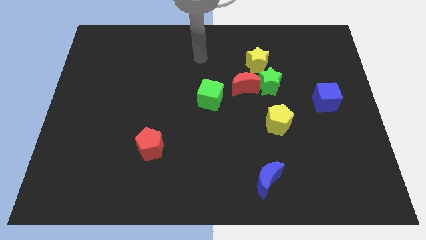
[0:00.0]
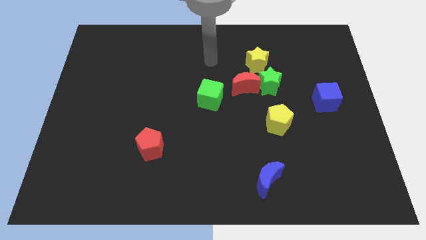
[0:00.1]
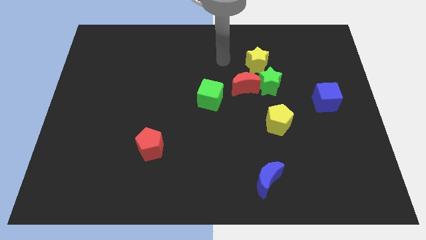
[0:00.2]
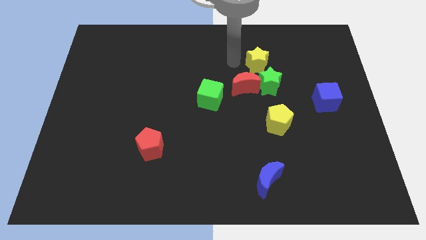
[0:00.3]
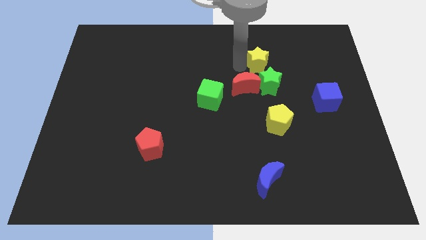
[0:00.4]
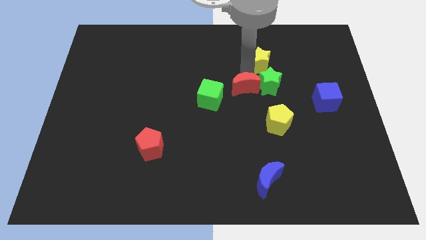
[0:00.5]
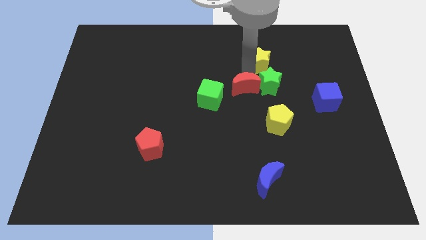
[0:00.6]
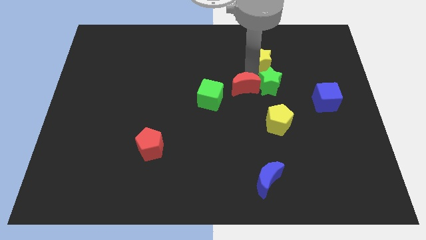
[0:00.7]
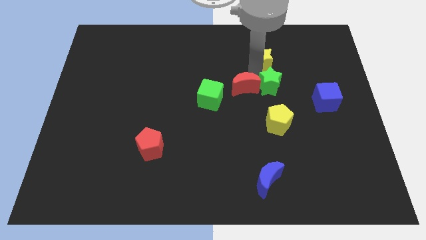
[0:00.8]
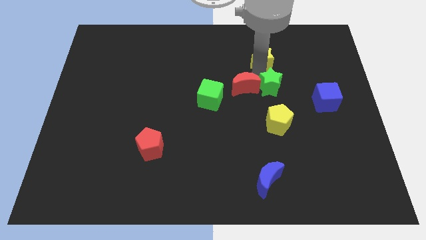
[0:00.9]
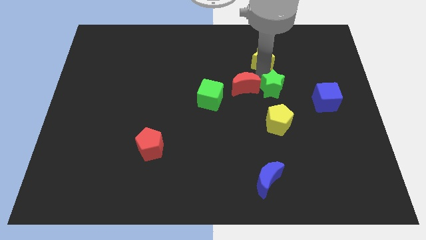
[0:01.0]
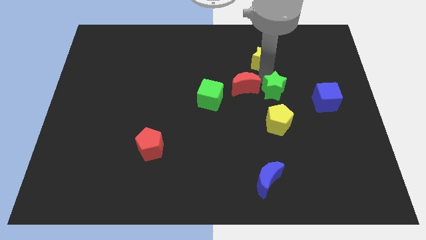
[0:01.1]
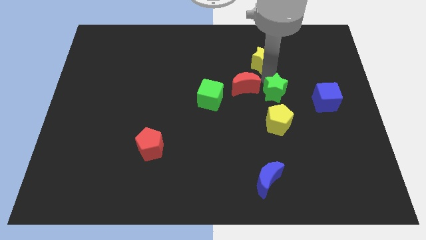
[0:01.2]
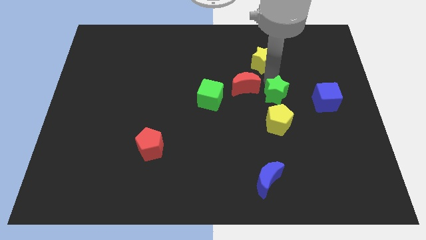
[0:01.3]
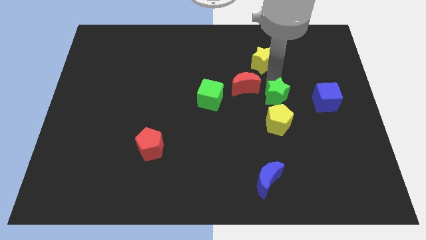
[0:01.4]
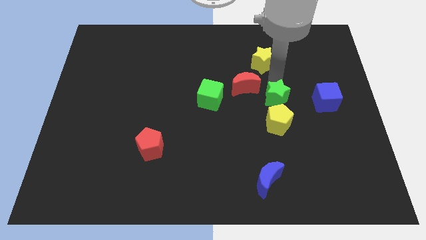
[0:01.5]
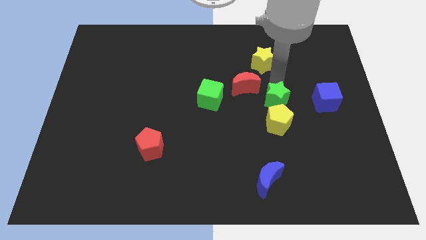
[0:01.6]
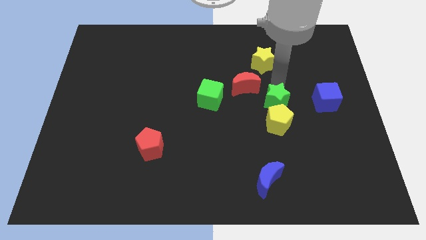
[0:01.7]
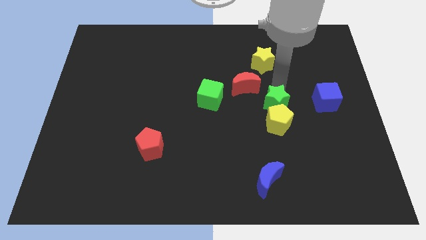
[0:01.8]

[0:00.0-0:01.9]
move the green star away from the red moon and yellow star

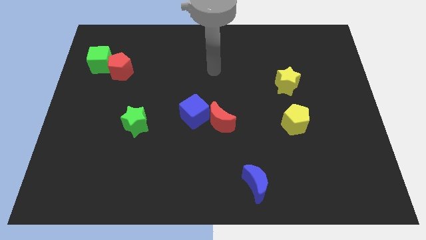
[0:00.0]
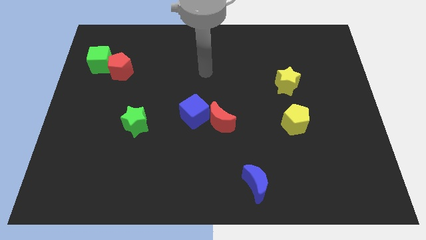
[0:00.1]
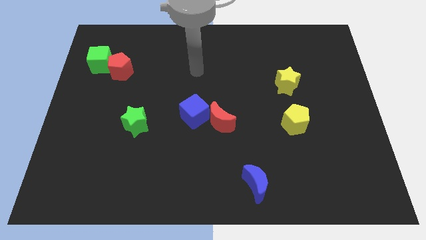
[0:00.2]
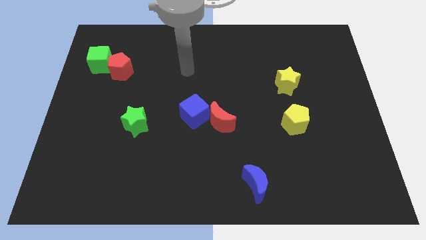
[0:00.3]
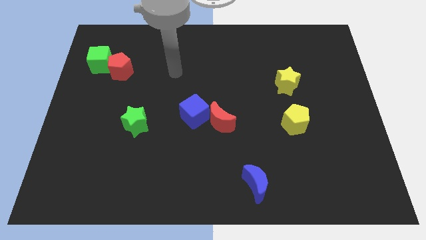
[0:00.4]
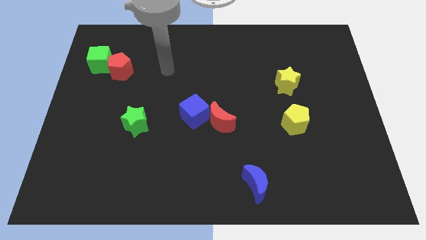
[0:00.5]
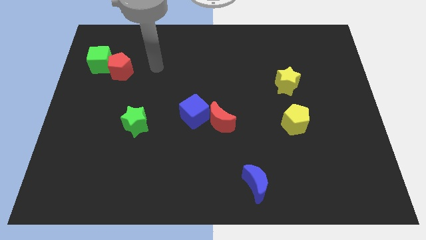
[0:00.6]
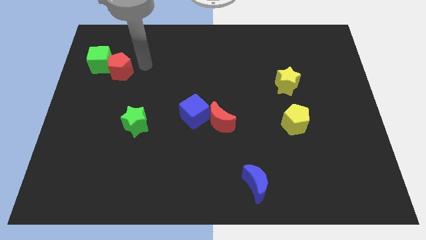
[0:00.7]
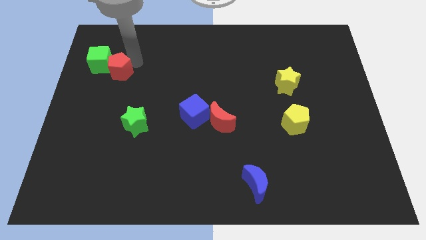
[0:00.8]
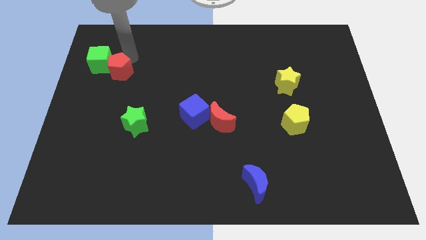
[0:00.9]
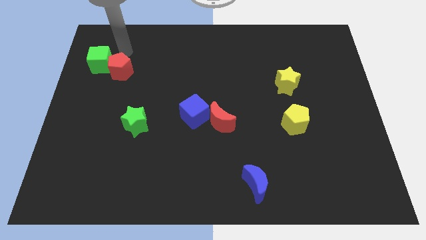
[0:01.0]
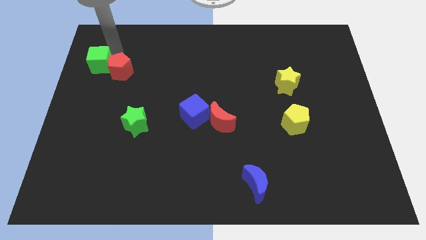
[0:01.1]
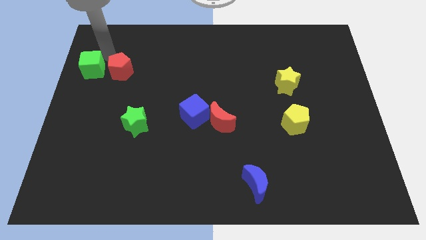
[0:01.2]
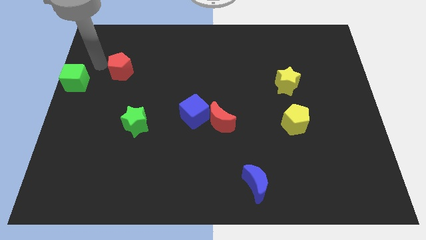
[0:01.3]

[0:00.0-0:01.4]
move the red pentagon away from the green cube

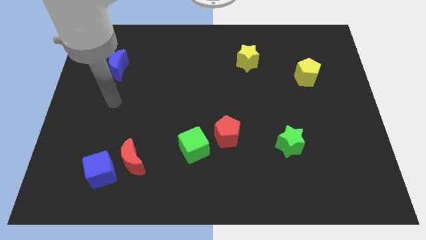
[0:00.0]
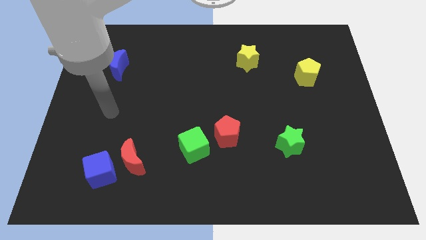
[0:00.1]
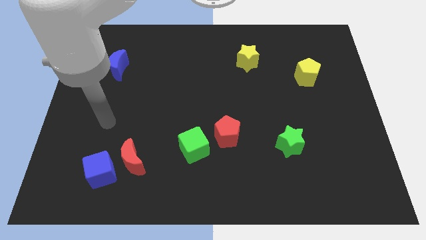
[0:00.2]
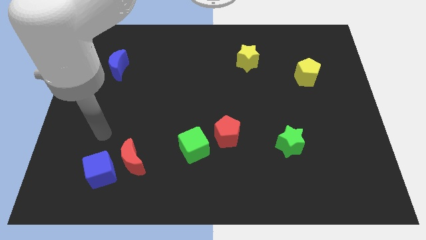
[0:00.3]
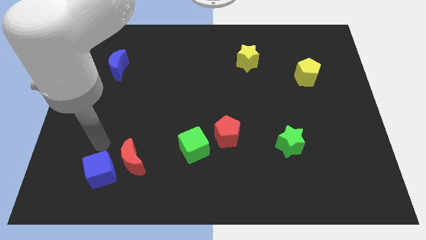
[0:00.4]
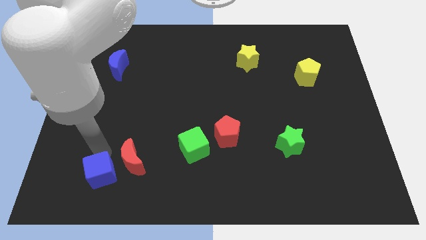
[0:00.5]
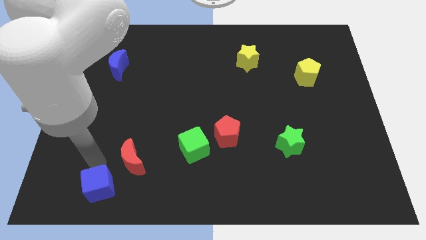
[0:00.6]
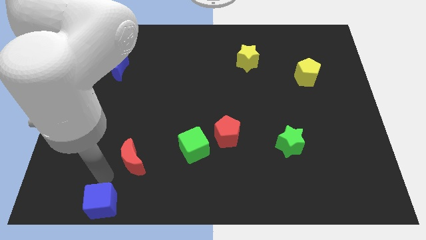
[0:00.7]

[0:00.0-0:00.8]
pull the red moon apart from the blue cube

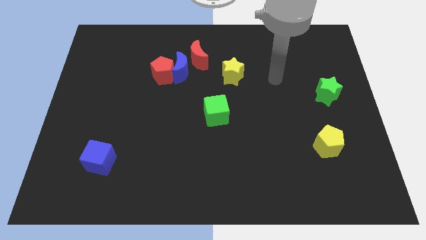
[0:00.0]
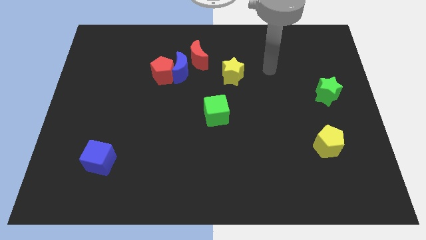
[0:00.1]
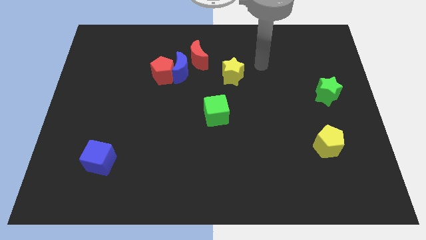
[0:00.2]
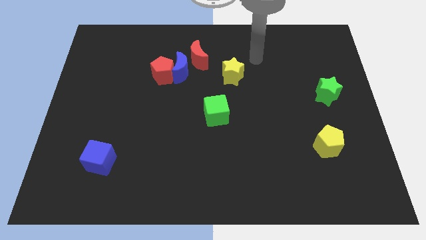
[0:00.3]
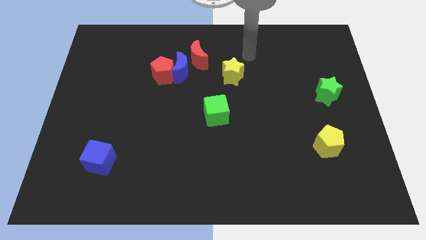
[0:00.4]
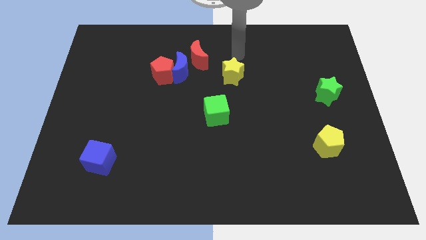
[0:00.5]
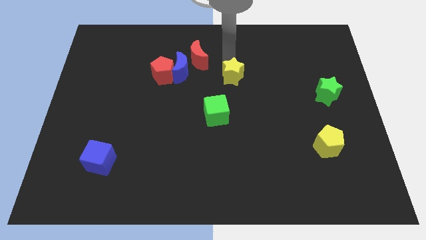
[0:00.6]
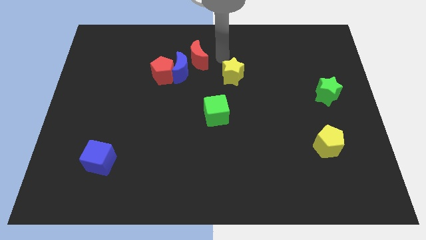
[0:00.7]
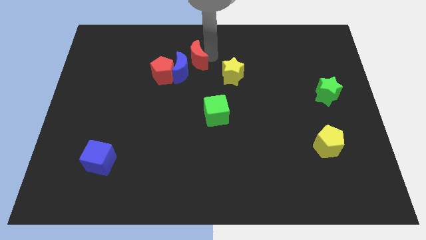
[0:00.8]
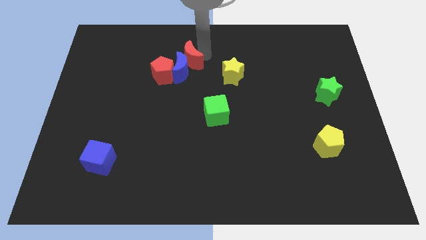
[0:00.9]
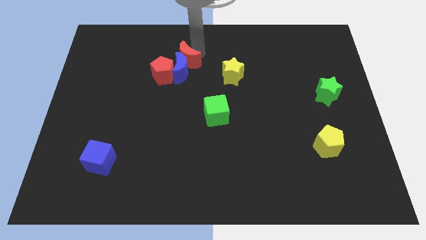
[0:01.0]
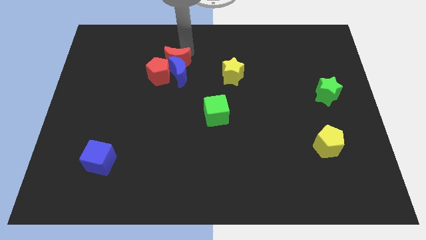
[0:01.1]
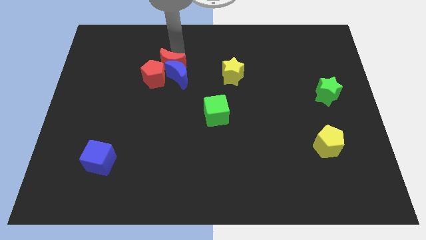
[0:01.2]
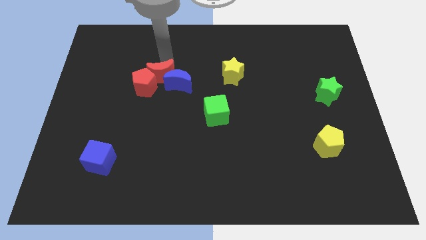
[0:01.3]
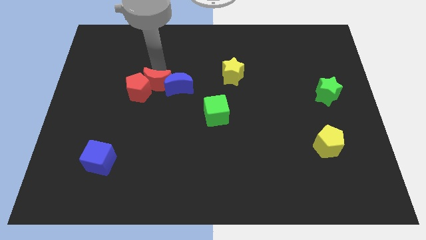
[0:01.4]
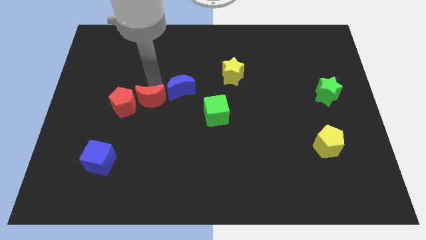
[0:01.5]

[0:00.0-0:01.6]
separate the blue moon from the red pentagon and red moon

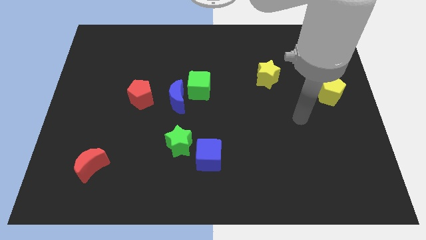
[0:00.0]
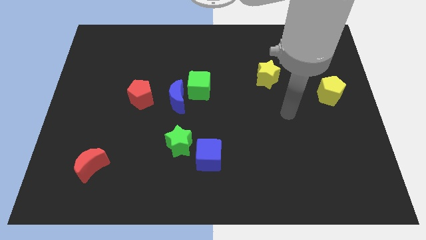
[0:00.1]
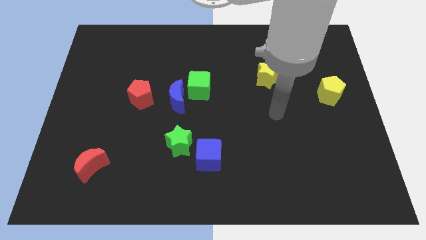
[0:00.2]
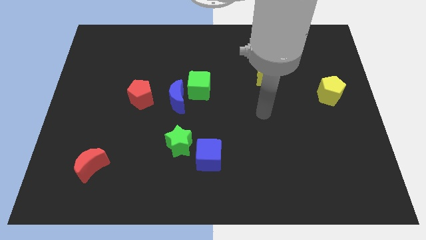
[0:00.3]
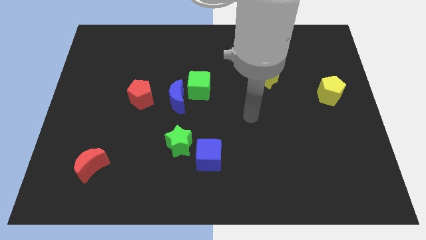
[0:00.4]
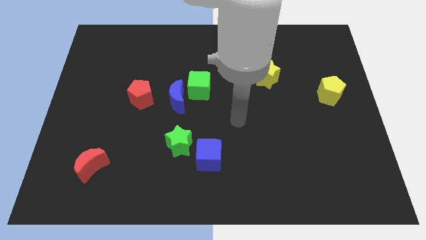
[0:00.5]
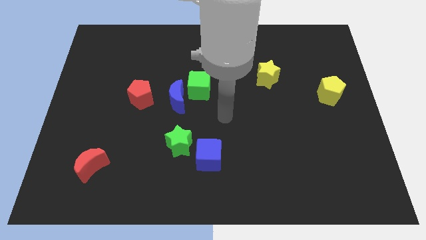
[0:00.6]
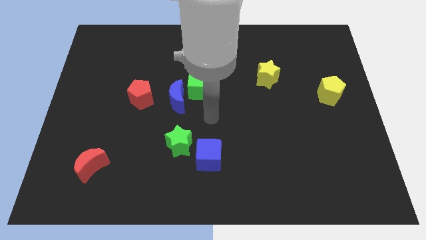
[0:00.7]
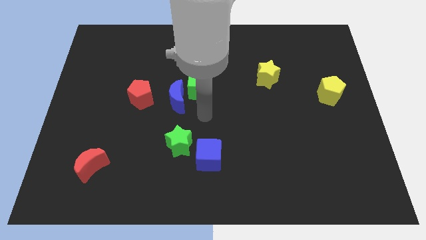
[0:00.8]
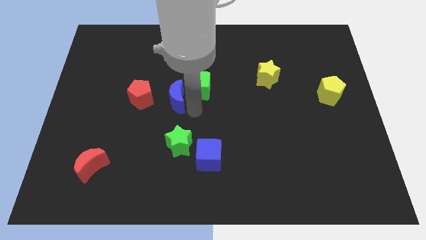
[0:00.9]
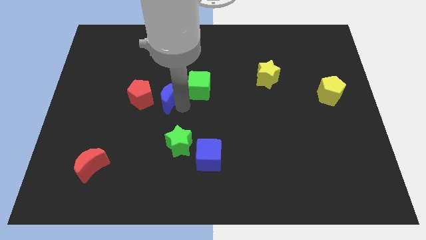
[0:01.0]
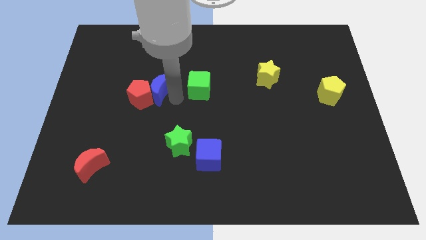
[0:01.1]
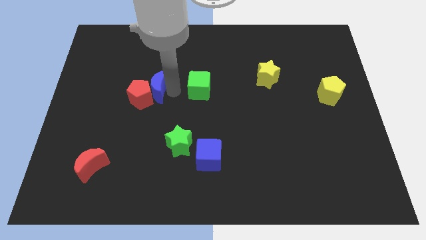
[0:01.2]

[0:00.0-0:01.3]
pull the green cube apart from the blue moon

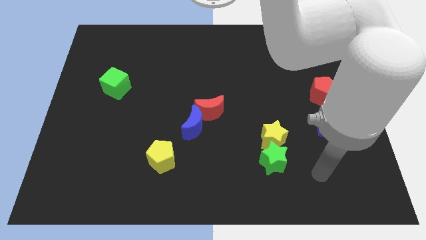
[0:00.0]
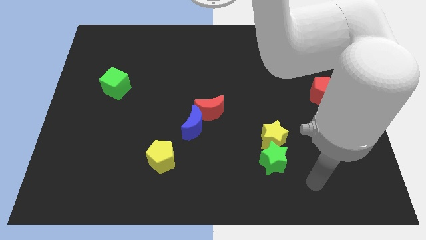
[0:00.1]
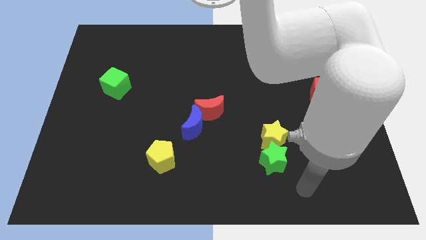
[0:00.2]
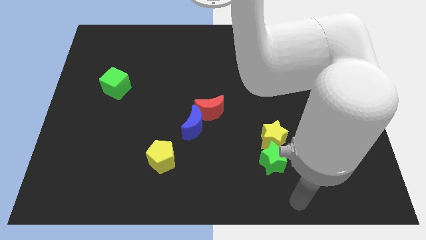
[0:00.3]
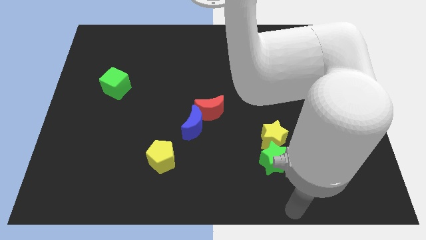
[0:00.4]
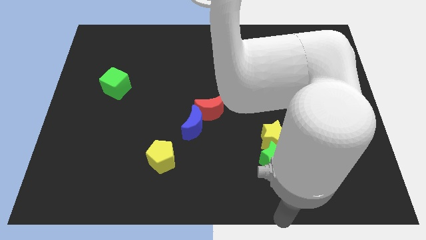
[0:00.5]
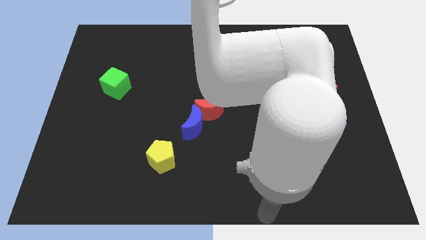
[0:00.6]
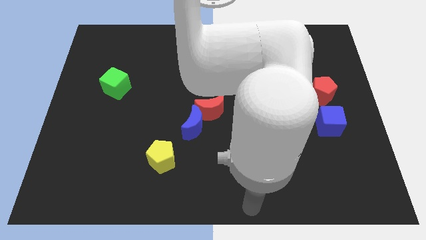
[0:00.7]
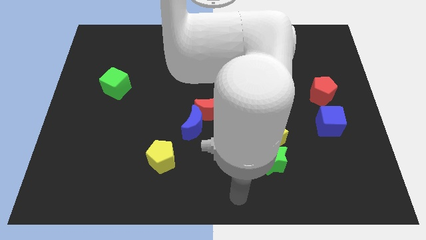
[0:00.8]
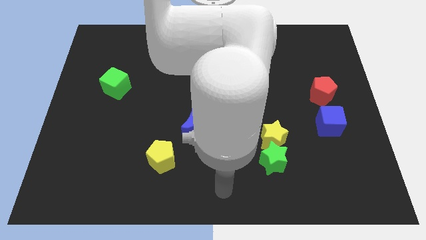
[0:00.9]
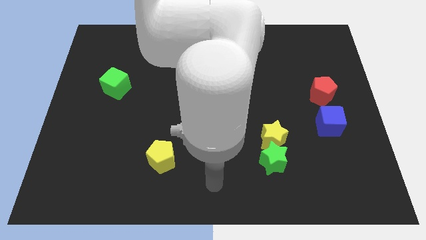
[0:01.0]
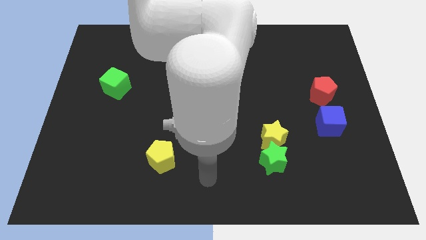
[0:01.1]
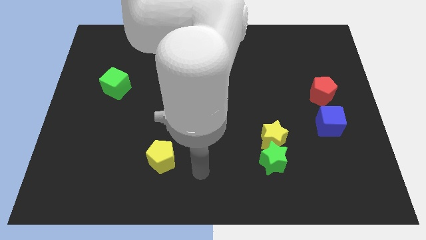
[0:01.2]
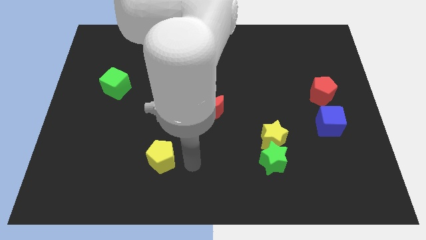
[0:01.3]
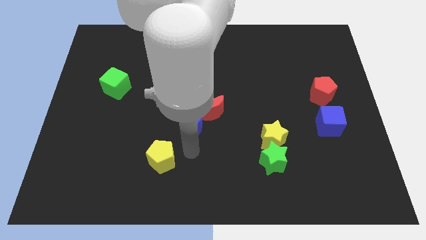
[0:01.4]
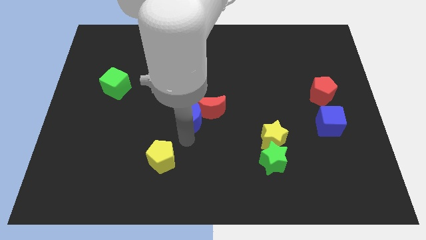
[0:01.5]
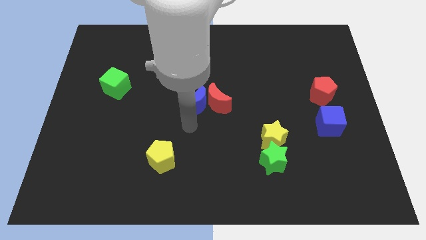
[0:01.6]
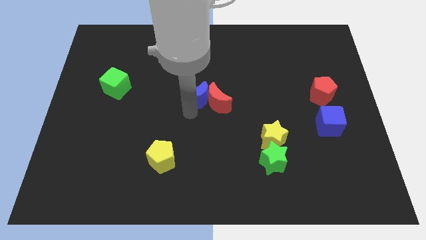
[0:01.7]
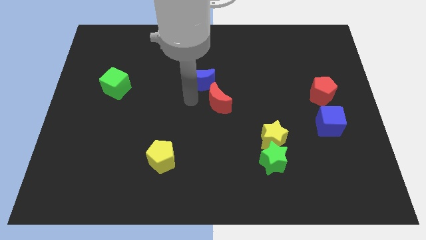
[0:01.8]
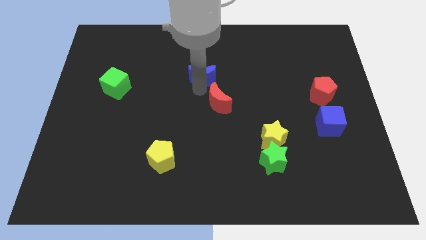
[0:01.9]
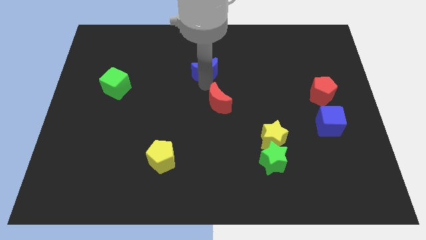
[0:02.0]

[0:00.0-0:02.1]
separate the red moon from the blue moon

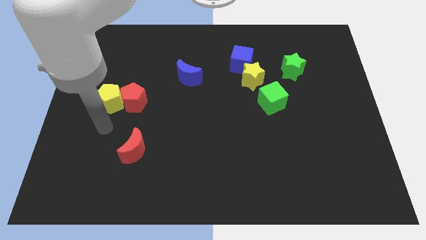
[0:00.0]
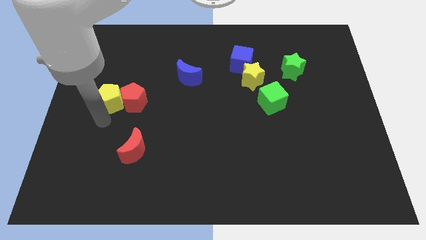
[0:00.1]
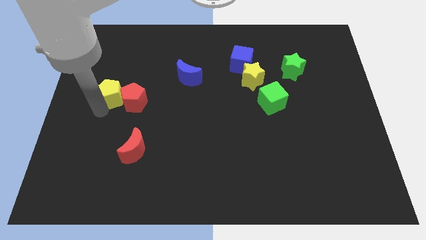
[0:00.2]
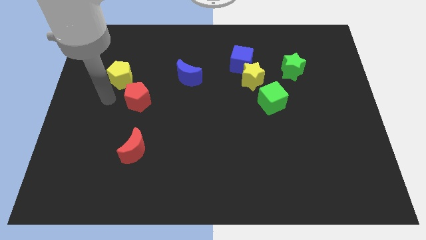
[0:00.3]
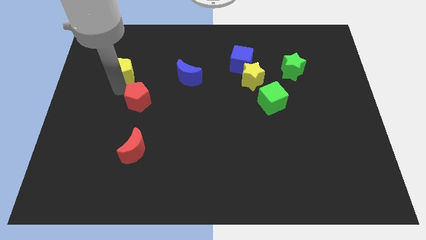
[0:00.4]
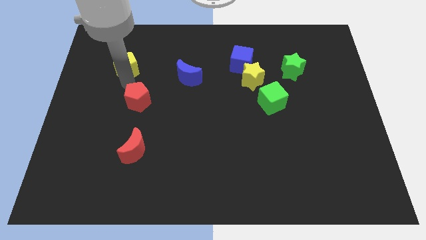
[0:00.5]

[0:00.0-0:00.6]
separate the red pentagon from the yellow pentagon
